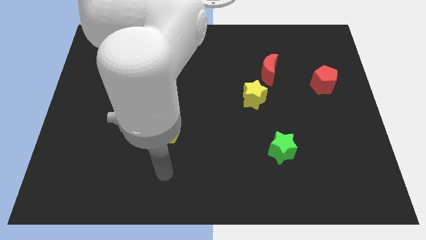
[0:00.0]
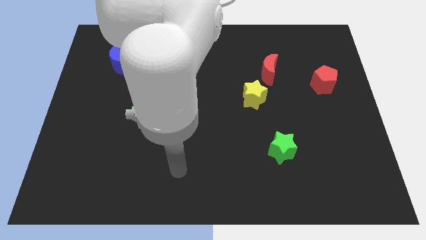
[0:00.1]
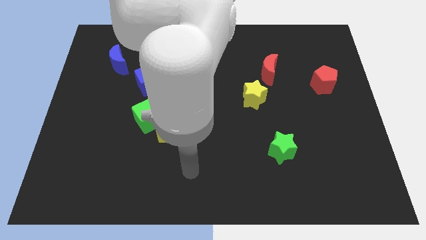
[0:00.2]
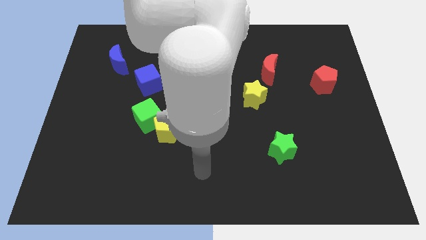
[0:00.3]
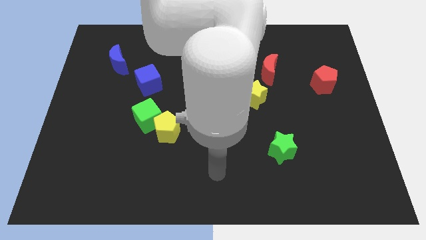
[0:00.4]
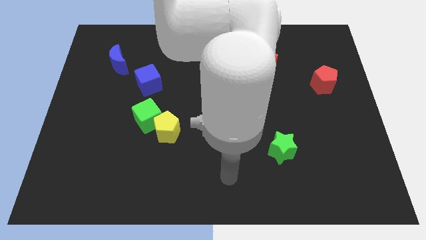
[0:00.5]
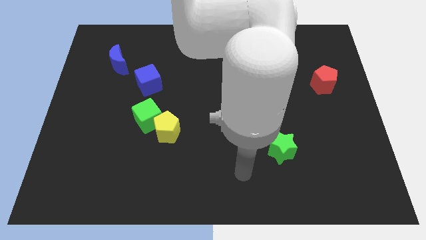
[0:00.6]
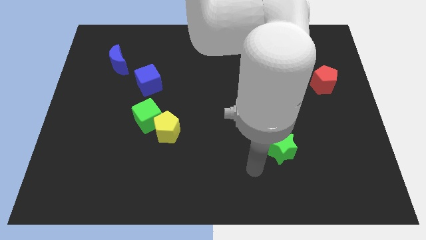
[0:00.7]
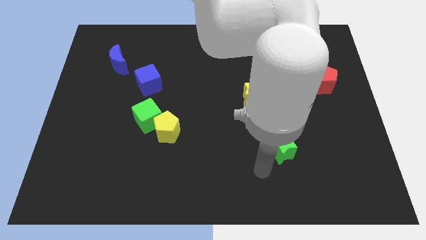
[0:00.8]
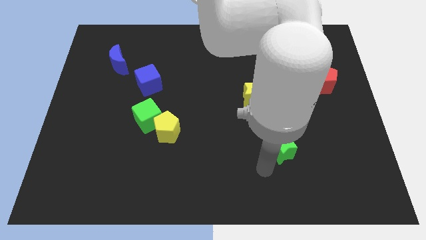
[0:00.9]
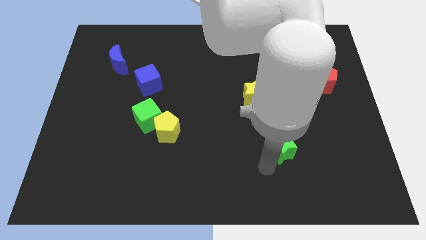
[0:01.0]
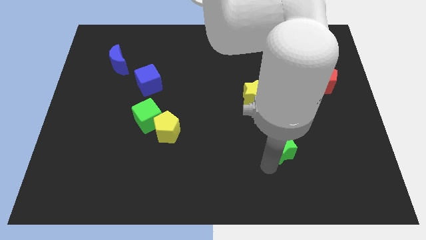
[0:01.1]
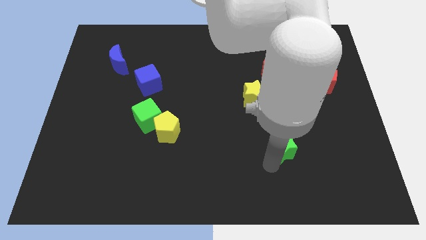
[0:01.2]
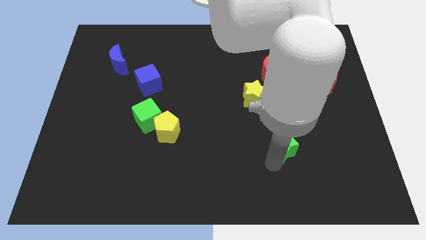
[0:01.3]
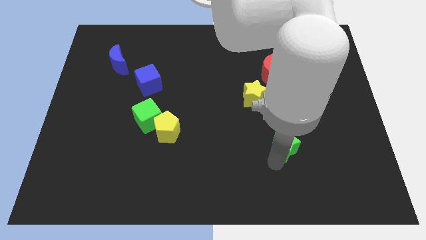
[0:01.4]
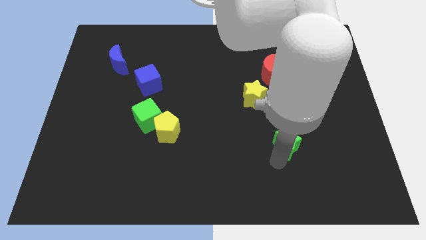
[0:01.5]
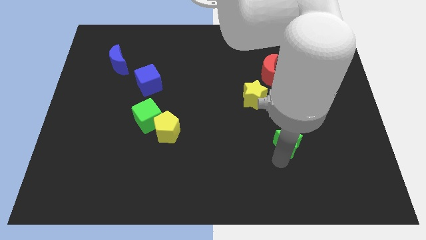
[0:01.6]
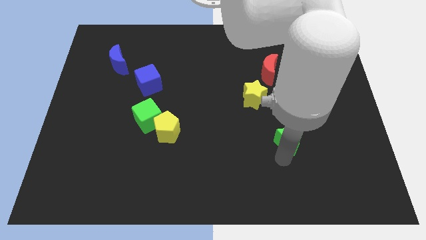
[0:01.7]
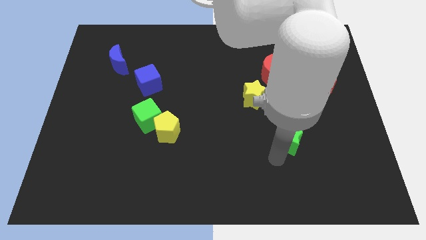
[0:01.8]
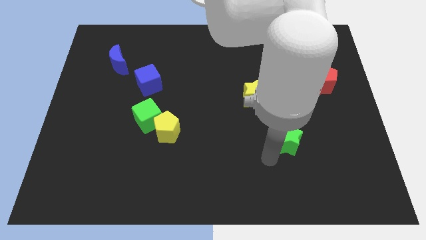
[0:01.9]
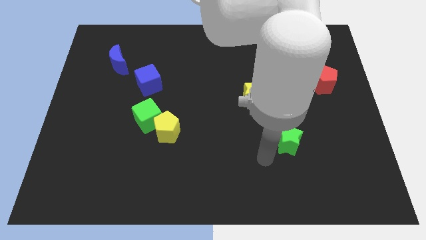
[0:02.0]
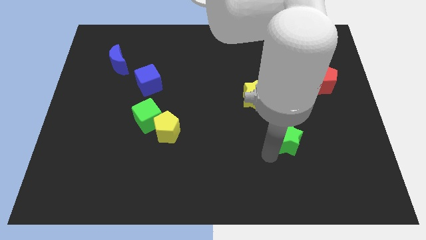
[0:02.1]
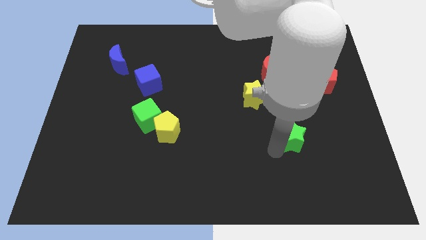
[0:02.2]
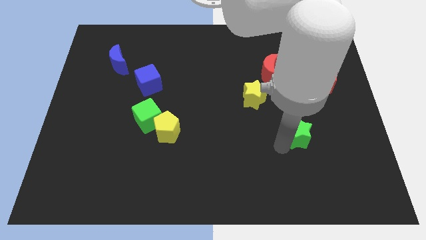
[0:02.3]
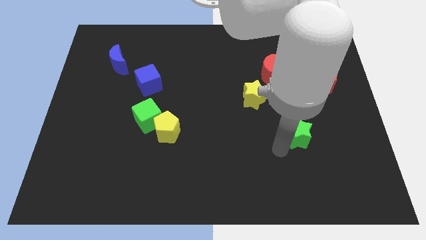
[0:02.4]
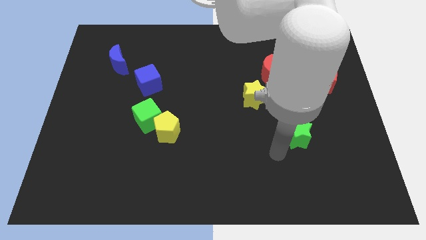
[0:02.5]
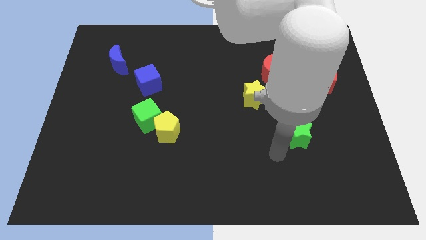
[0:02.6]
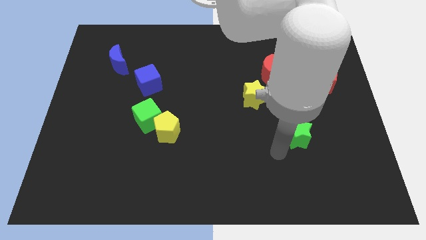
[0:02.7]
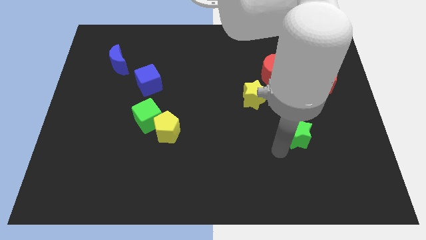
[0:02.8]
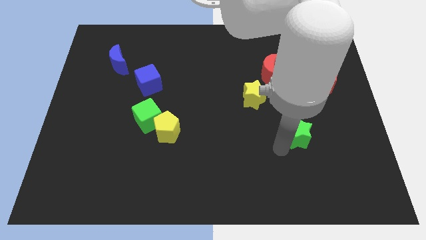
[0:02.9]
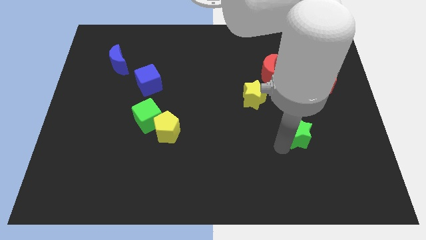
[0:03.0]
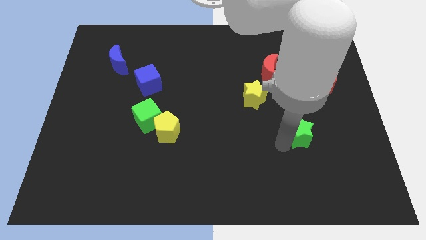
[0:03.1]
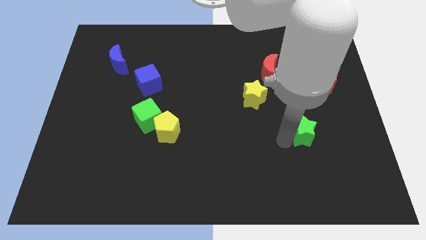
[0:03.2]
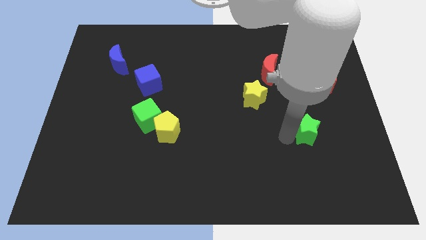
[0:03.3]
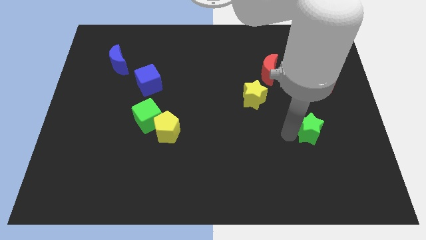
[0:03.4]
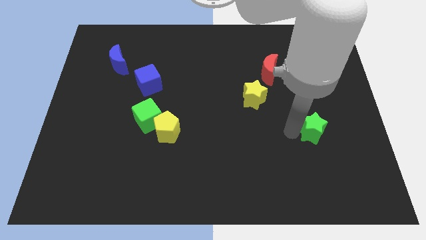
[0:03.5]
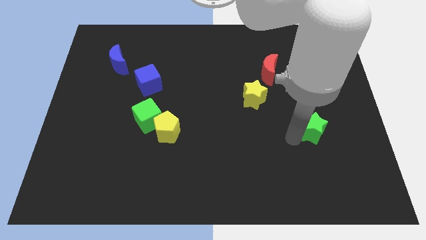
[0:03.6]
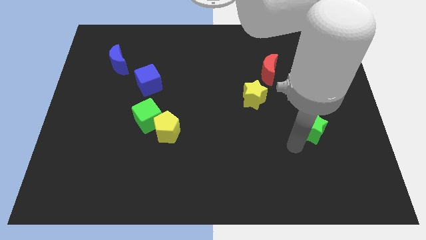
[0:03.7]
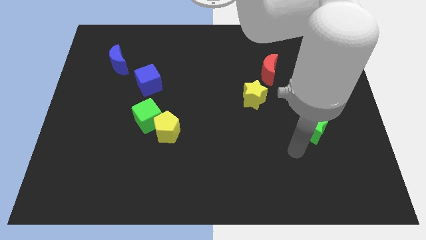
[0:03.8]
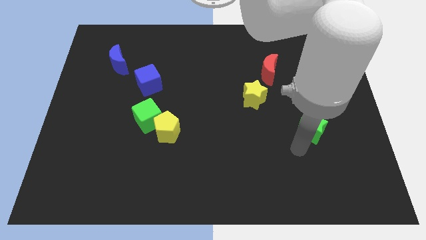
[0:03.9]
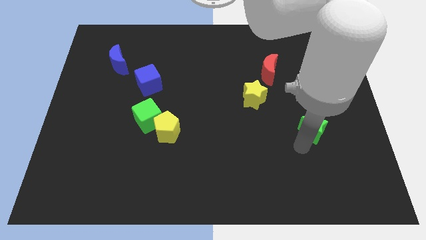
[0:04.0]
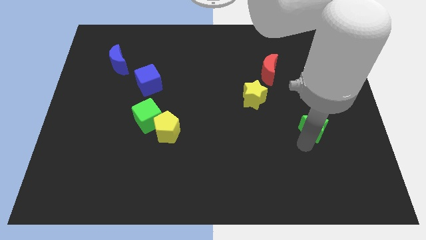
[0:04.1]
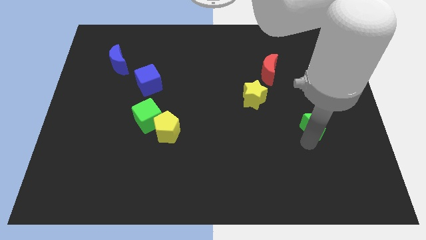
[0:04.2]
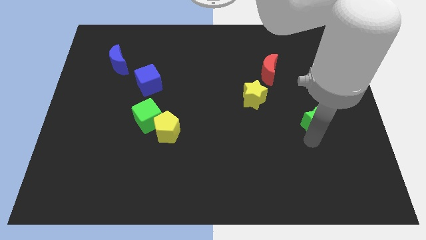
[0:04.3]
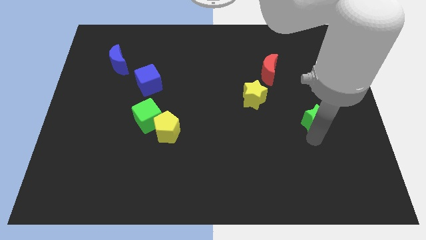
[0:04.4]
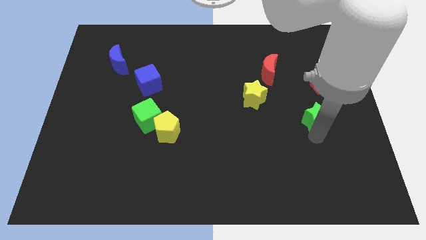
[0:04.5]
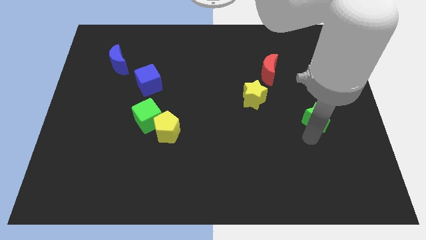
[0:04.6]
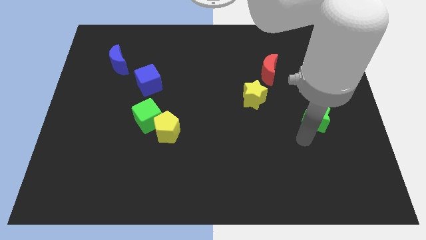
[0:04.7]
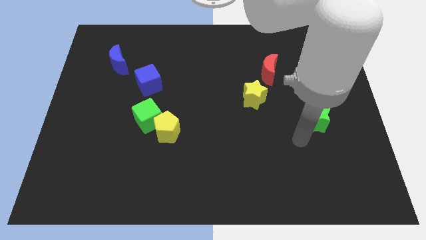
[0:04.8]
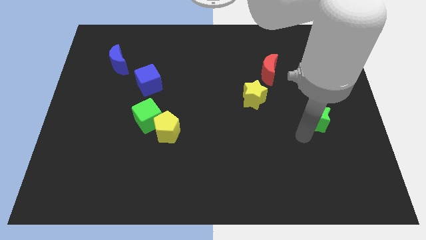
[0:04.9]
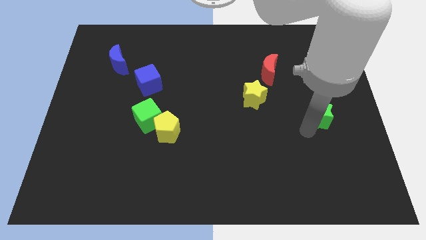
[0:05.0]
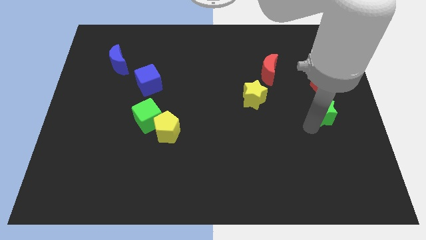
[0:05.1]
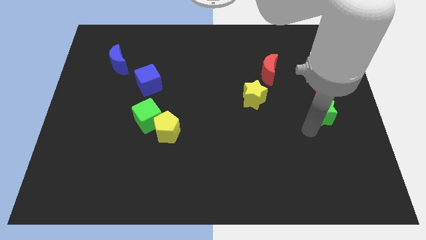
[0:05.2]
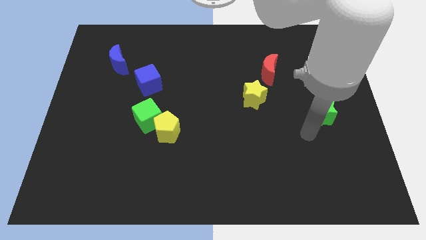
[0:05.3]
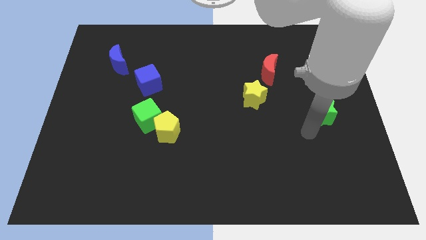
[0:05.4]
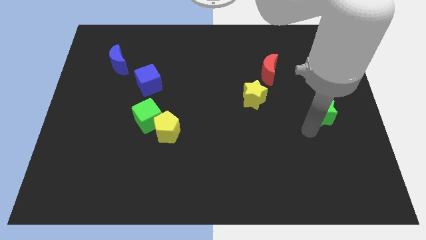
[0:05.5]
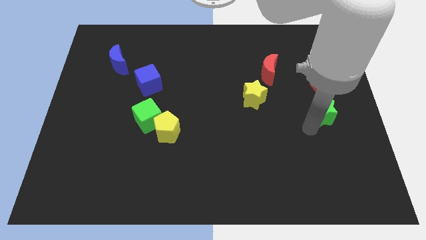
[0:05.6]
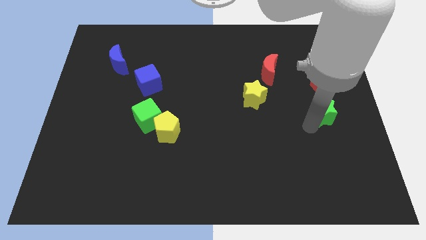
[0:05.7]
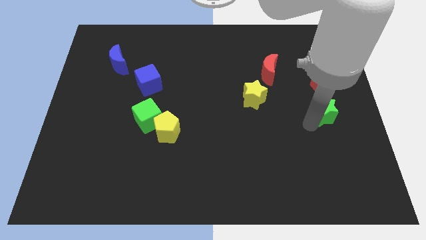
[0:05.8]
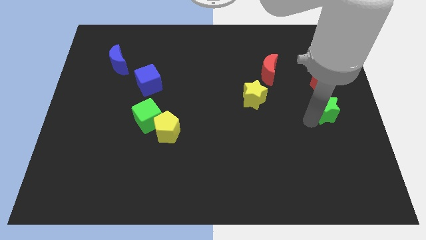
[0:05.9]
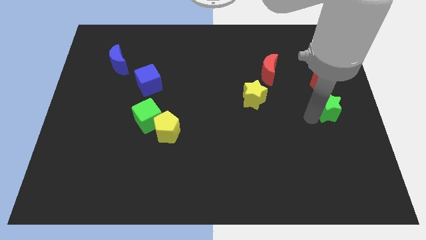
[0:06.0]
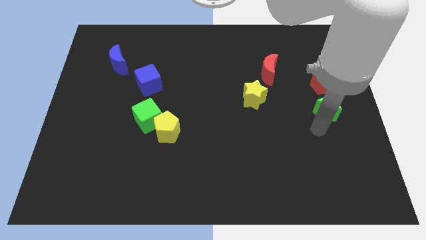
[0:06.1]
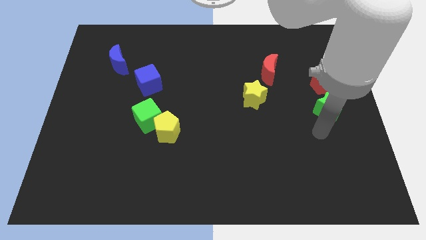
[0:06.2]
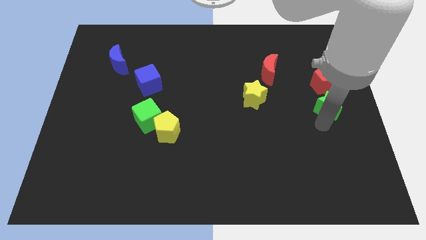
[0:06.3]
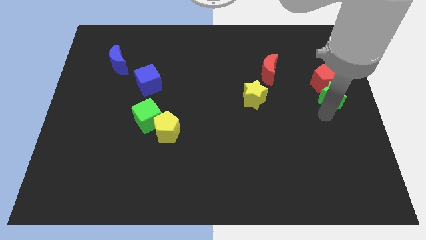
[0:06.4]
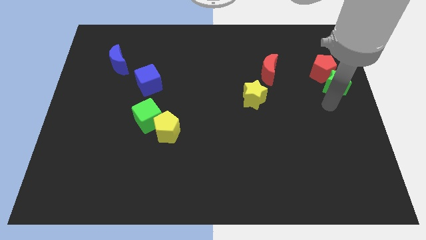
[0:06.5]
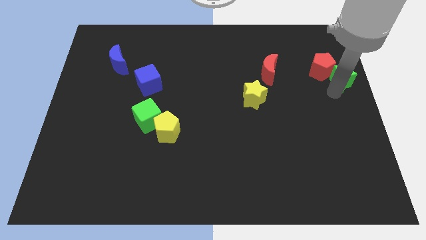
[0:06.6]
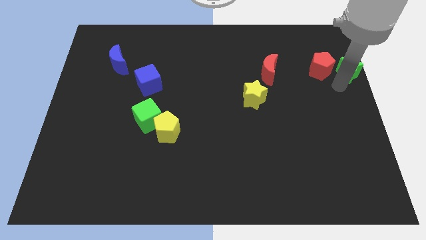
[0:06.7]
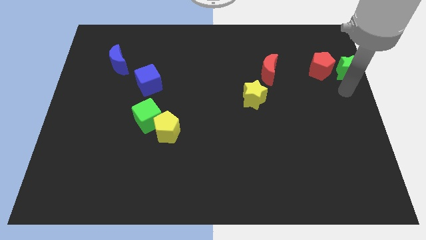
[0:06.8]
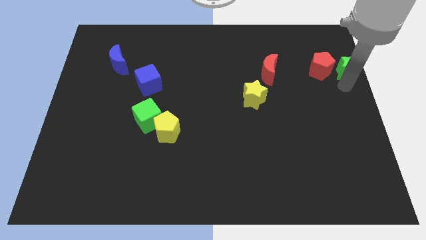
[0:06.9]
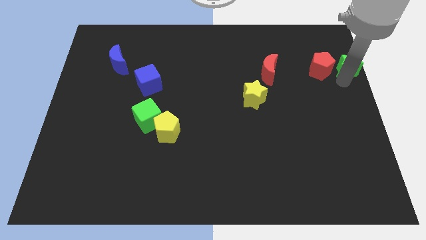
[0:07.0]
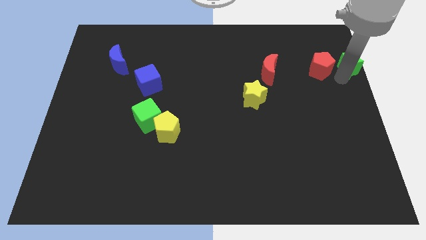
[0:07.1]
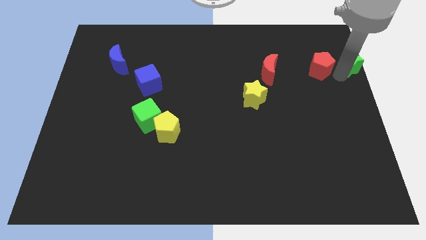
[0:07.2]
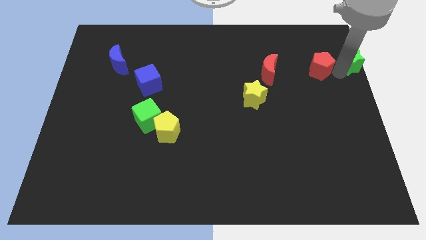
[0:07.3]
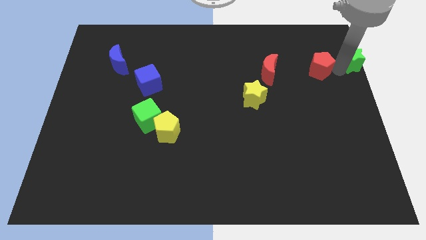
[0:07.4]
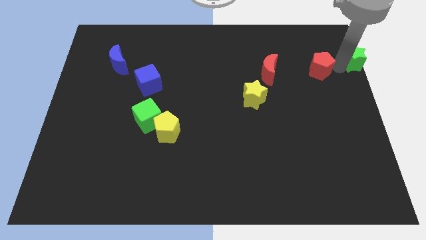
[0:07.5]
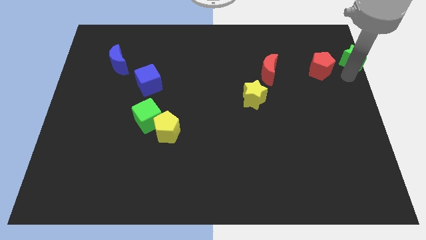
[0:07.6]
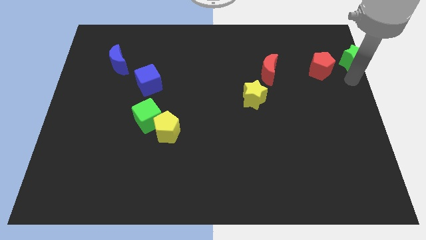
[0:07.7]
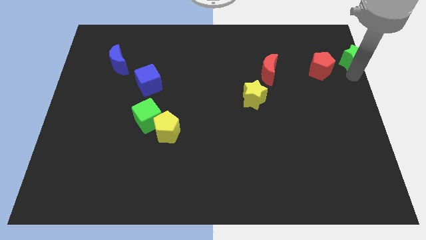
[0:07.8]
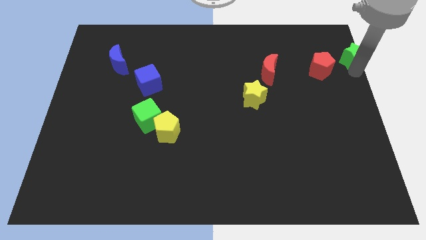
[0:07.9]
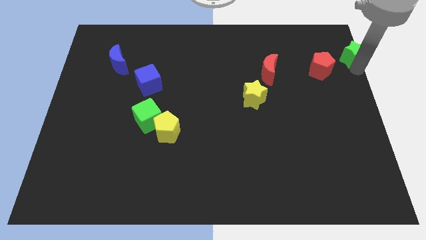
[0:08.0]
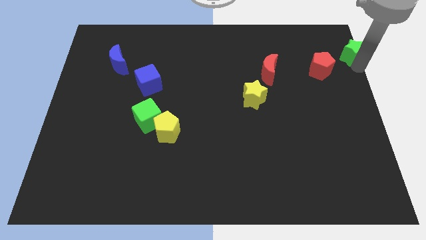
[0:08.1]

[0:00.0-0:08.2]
slide the green star to the top right of the board
